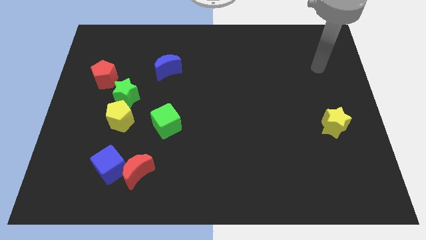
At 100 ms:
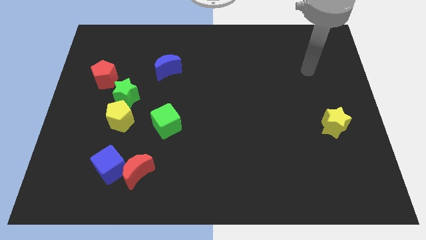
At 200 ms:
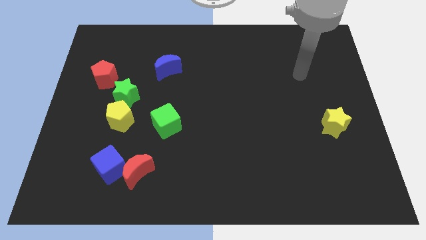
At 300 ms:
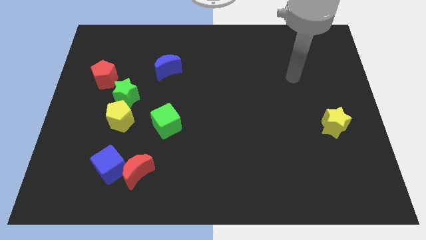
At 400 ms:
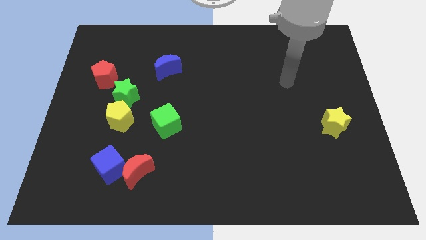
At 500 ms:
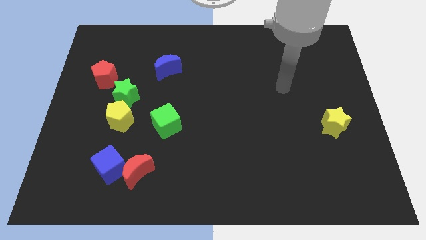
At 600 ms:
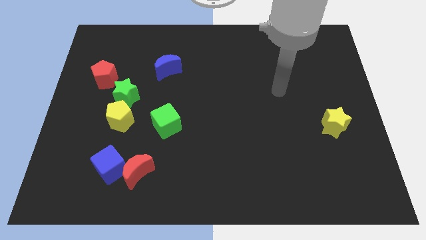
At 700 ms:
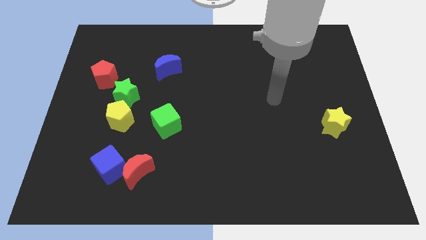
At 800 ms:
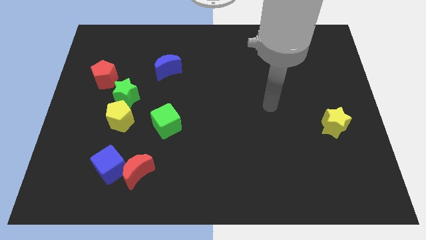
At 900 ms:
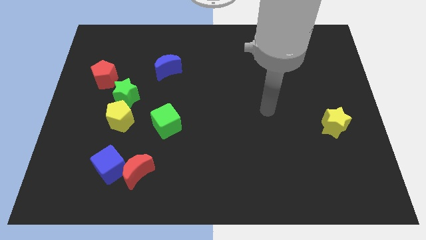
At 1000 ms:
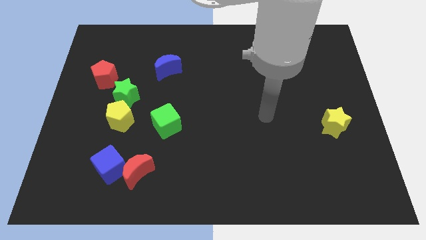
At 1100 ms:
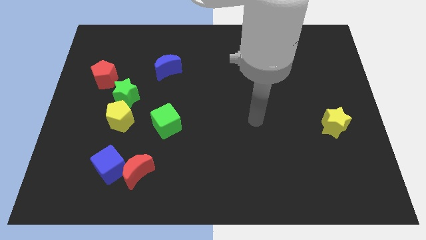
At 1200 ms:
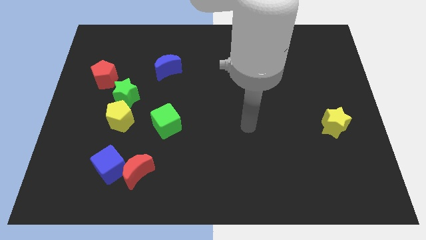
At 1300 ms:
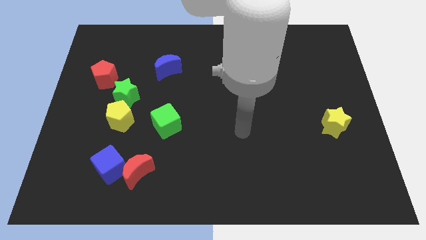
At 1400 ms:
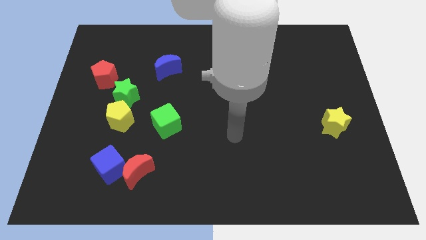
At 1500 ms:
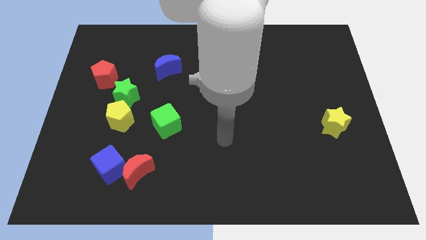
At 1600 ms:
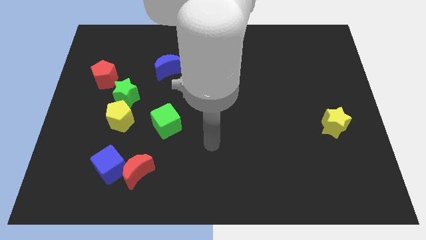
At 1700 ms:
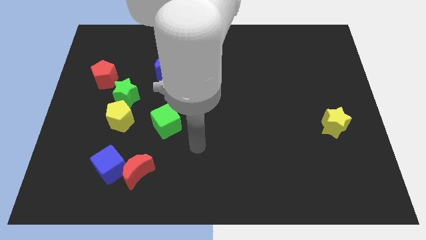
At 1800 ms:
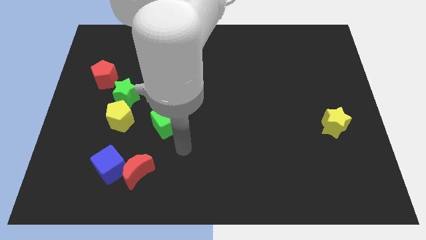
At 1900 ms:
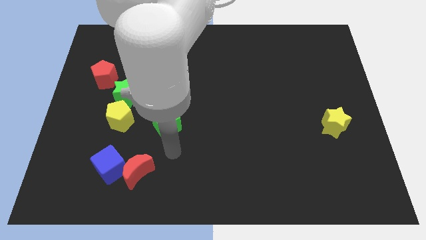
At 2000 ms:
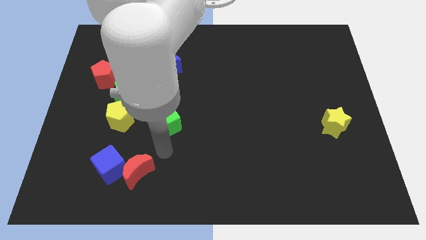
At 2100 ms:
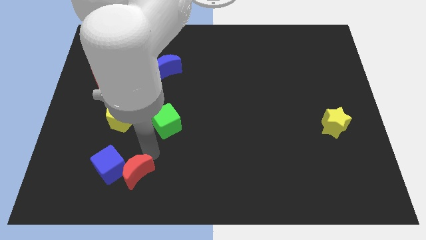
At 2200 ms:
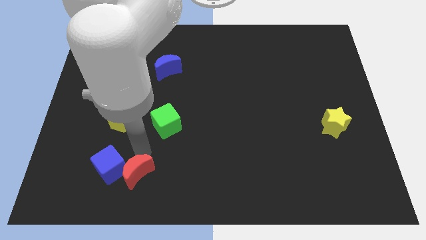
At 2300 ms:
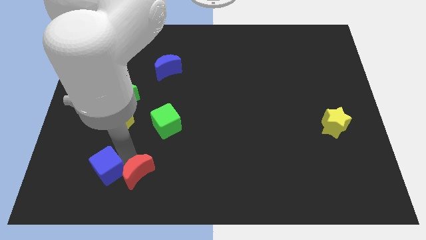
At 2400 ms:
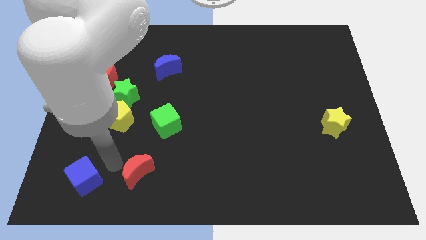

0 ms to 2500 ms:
separate the red moon from the blue cube

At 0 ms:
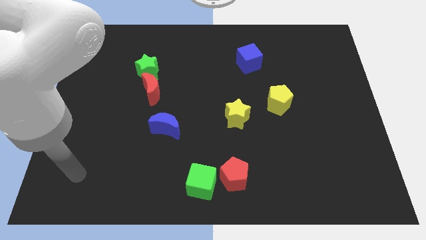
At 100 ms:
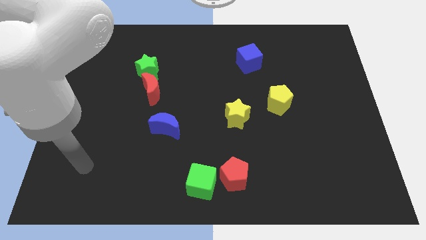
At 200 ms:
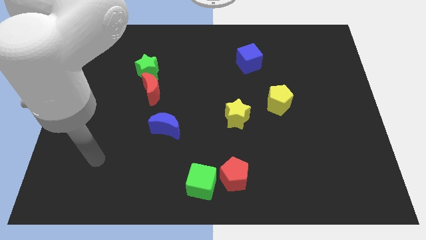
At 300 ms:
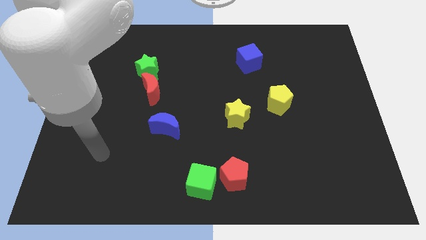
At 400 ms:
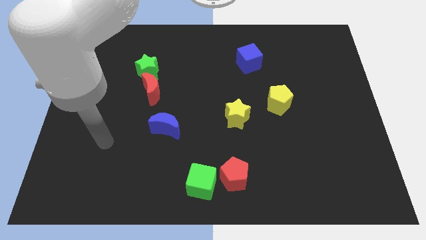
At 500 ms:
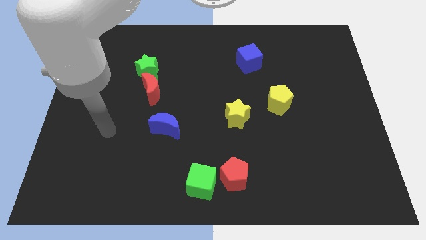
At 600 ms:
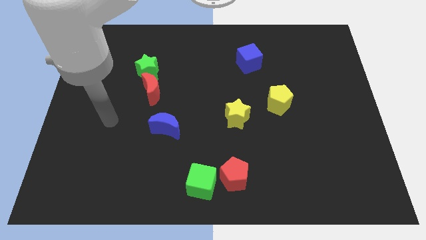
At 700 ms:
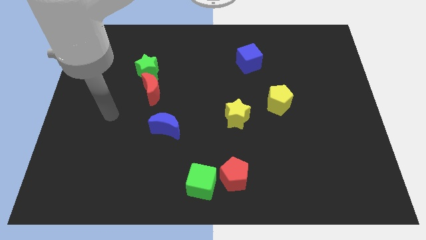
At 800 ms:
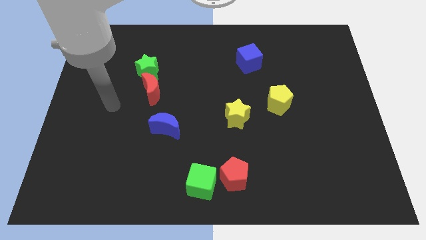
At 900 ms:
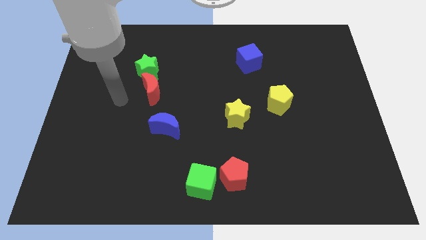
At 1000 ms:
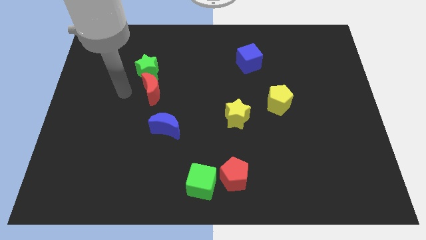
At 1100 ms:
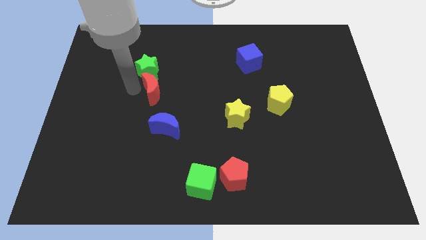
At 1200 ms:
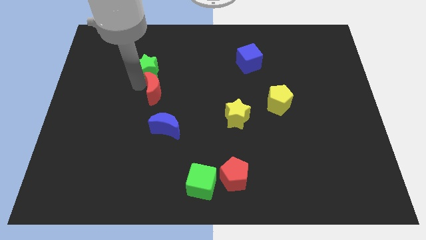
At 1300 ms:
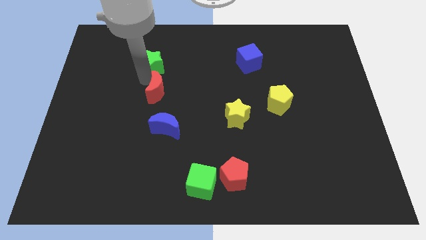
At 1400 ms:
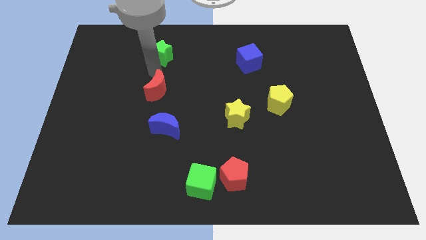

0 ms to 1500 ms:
pull the red moon apart from the green star

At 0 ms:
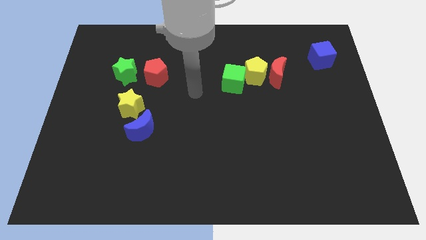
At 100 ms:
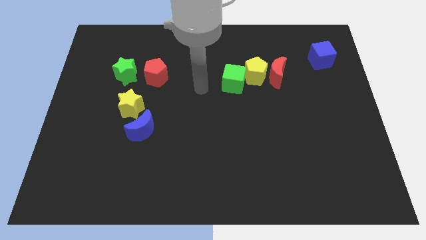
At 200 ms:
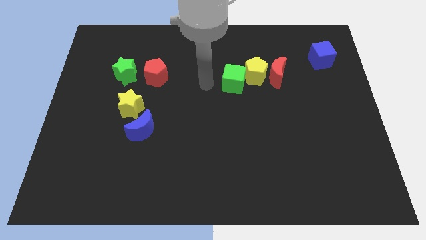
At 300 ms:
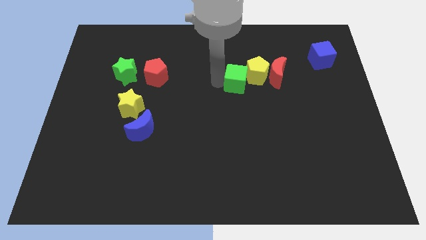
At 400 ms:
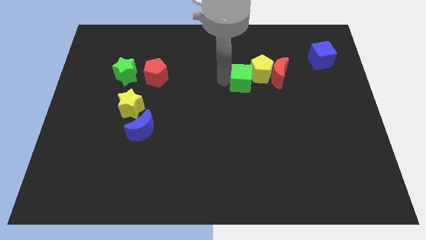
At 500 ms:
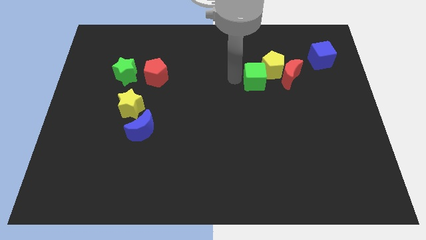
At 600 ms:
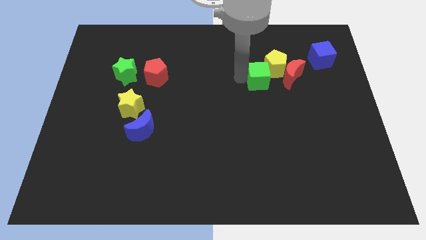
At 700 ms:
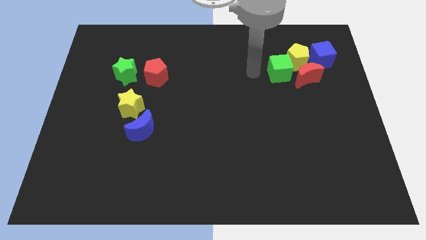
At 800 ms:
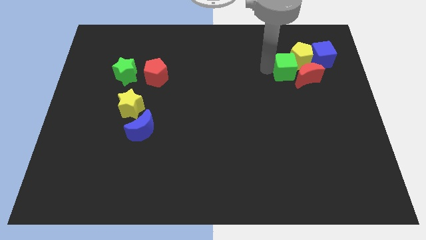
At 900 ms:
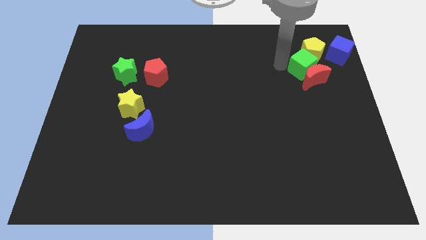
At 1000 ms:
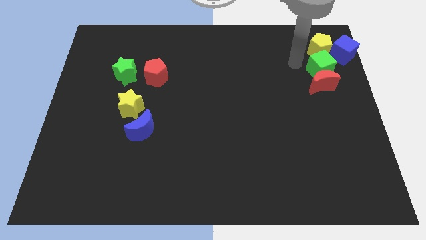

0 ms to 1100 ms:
separate the red moon from the yellow pentagon

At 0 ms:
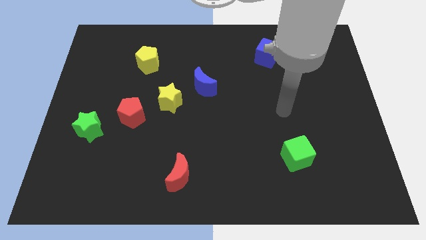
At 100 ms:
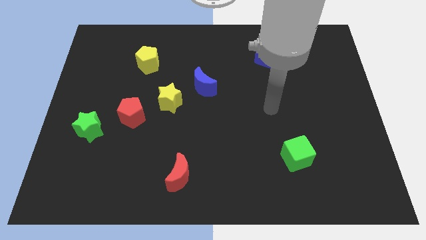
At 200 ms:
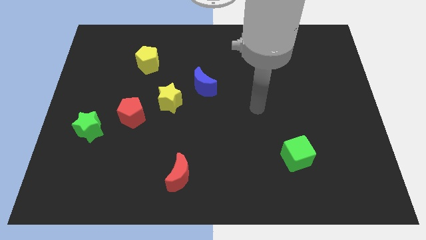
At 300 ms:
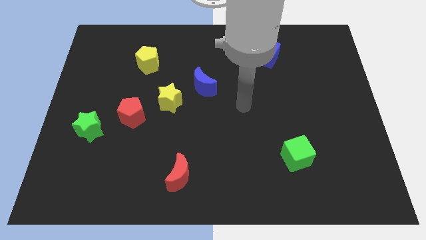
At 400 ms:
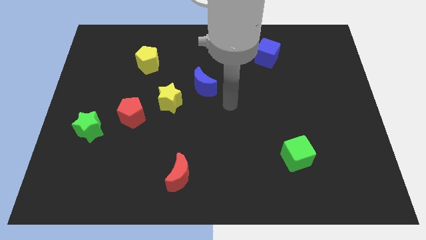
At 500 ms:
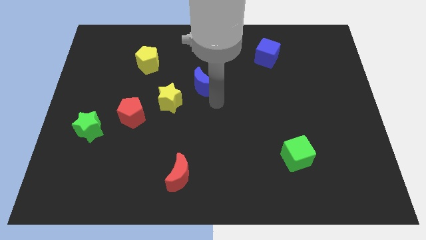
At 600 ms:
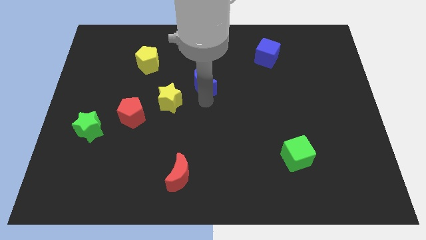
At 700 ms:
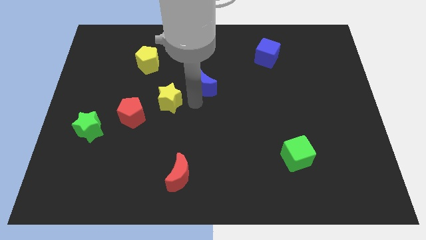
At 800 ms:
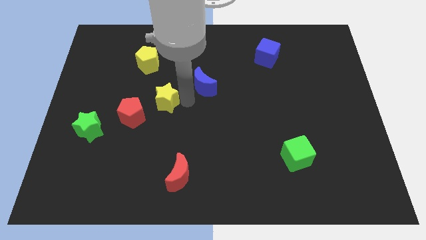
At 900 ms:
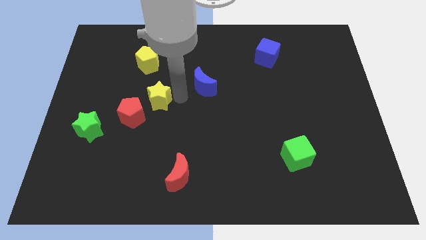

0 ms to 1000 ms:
pull the blue moon apart from the yellow star

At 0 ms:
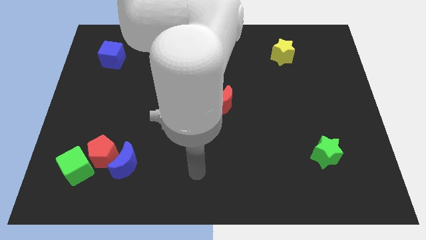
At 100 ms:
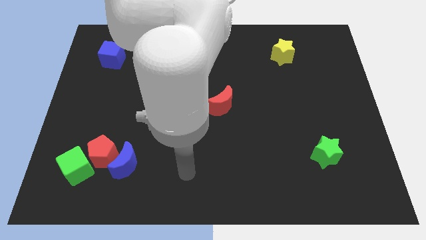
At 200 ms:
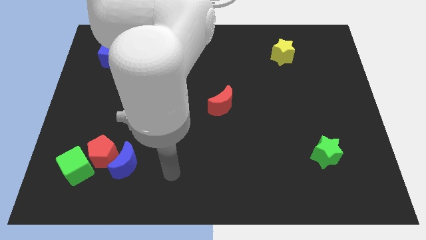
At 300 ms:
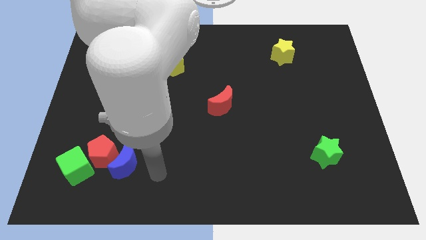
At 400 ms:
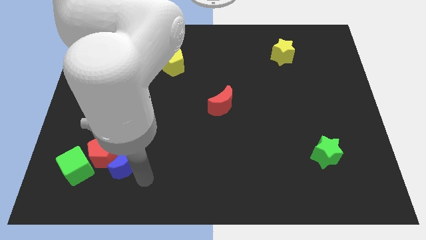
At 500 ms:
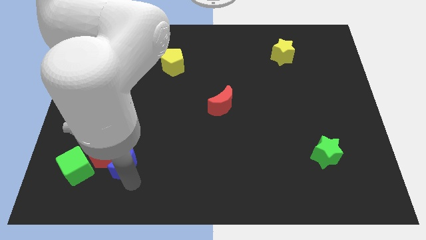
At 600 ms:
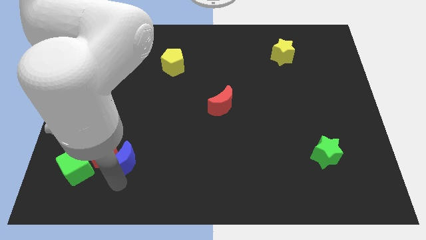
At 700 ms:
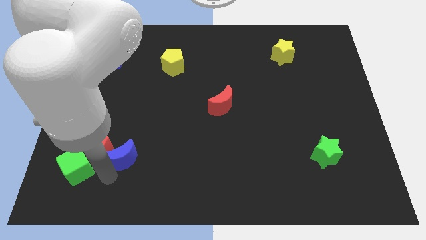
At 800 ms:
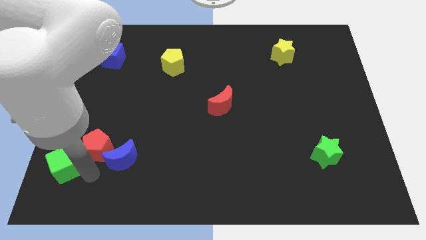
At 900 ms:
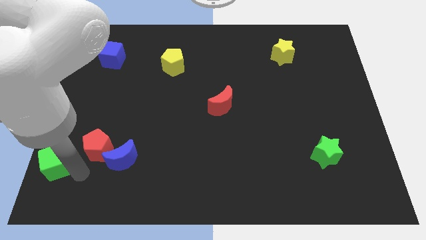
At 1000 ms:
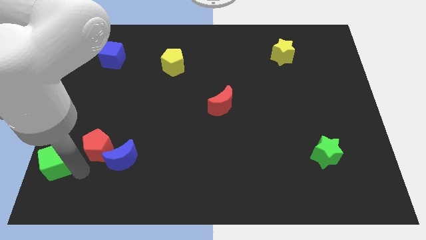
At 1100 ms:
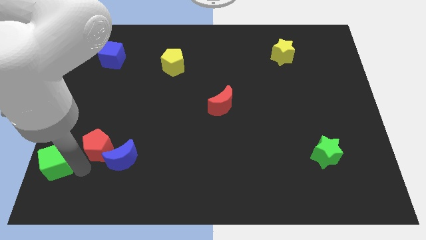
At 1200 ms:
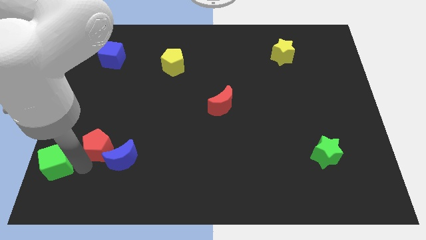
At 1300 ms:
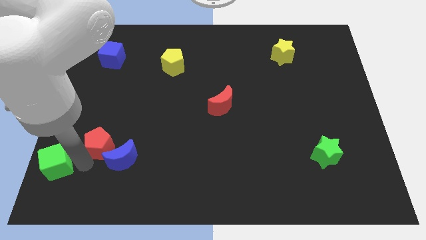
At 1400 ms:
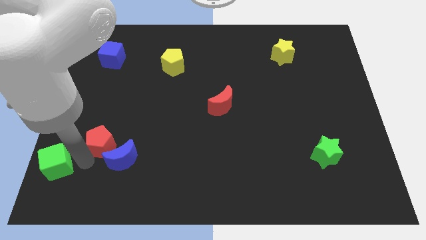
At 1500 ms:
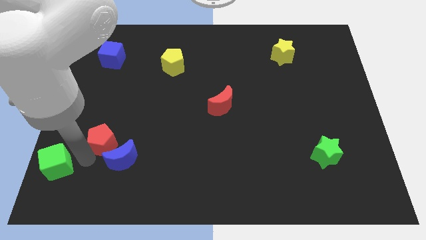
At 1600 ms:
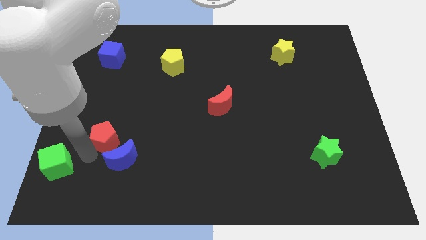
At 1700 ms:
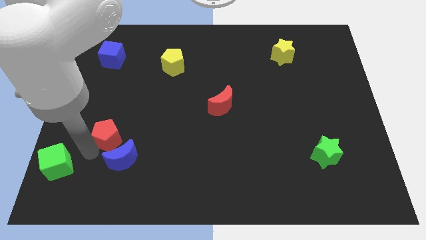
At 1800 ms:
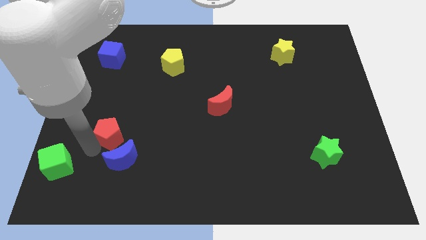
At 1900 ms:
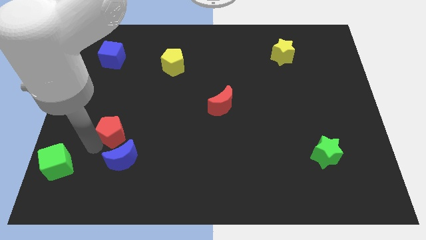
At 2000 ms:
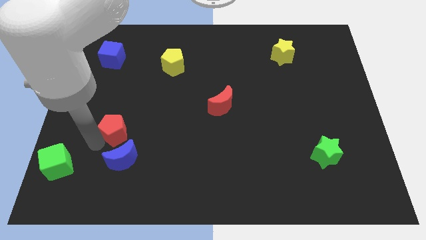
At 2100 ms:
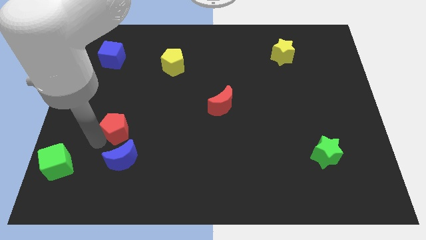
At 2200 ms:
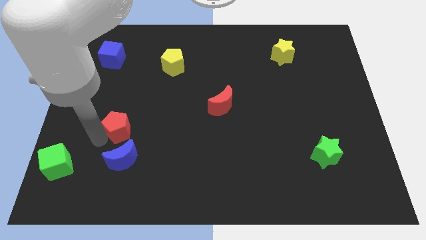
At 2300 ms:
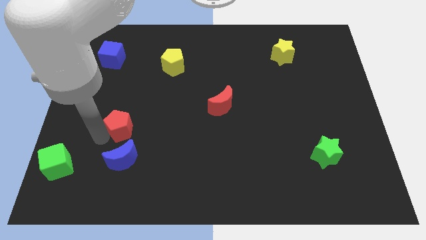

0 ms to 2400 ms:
separate the red pentagon from the blue moon and green cube

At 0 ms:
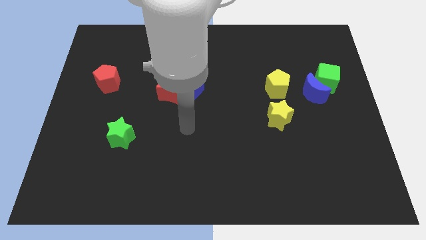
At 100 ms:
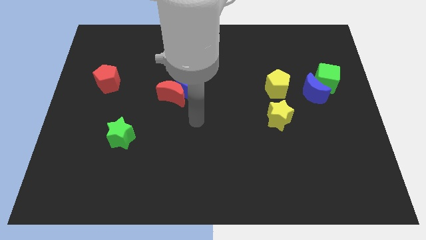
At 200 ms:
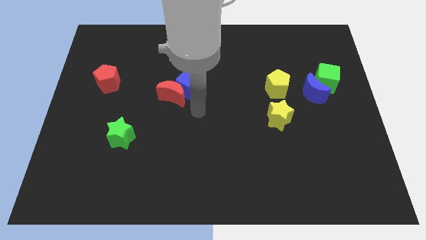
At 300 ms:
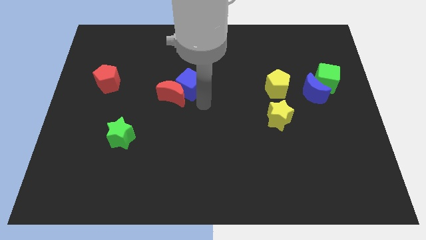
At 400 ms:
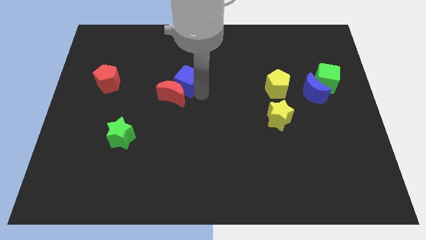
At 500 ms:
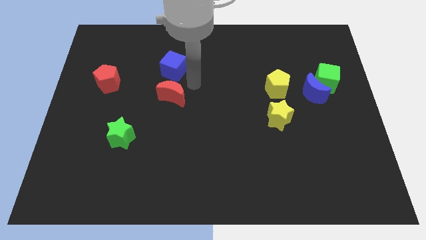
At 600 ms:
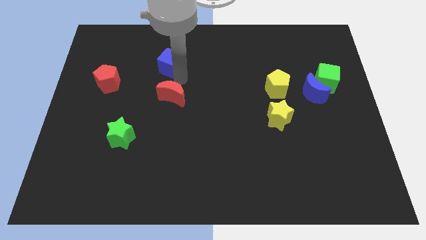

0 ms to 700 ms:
move the red moon away from the blue cube

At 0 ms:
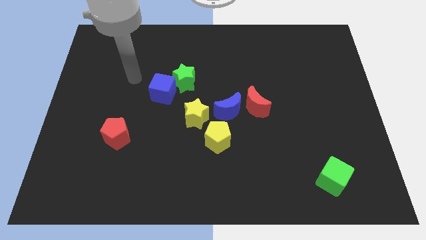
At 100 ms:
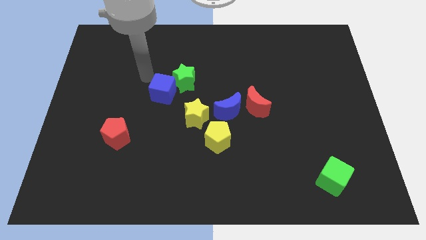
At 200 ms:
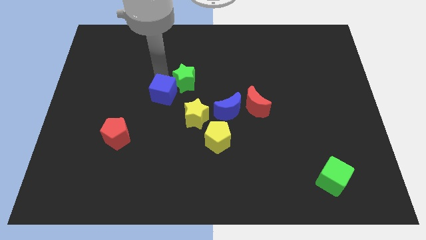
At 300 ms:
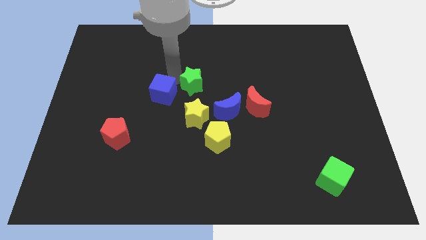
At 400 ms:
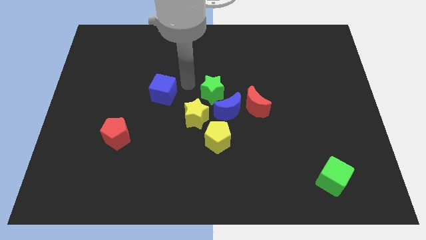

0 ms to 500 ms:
move the blue cube away from the green star
